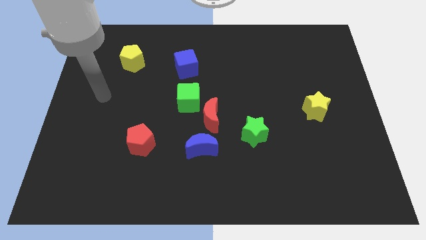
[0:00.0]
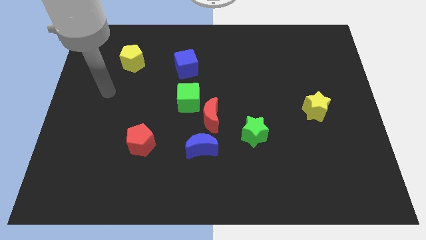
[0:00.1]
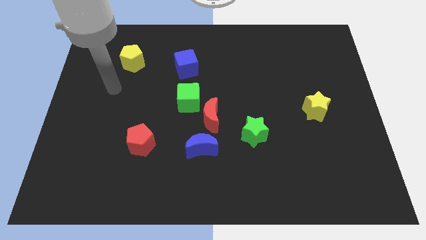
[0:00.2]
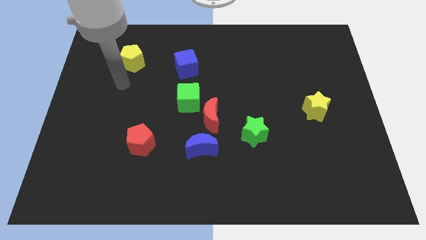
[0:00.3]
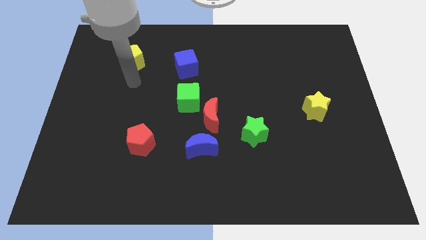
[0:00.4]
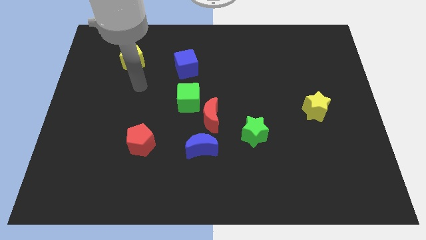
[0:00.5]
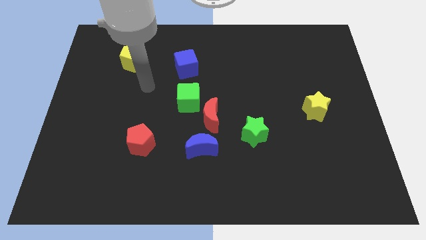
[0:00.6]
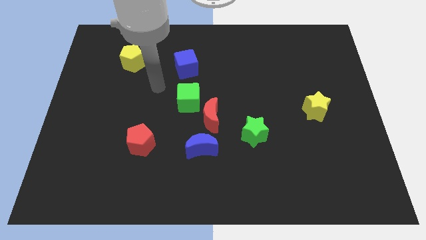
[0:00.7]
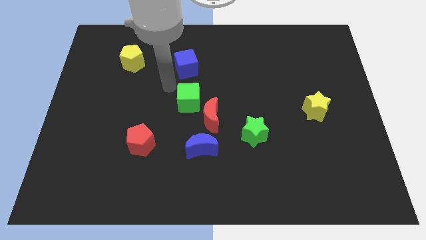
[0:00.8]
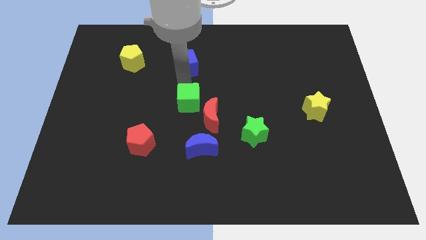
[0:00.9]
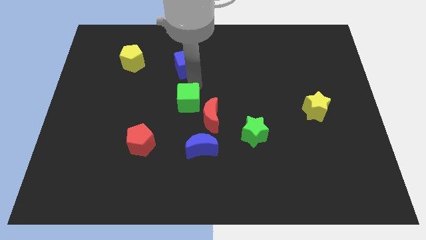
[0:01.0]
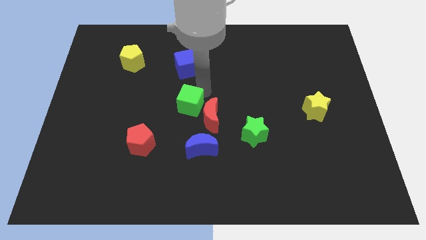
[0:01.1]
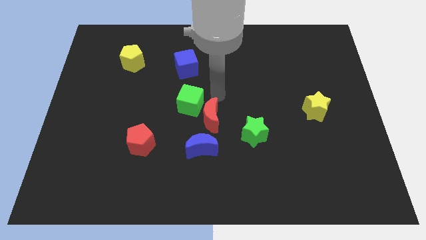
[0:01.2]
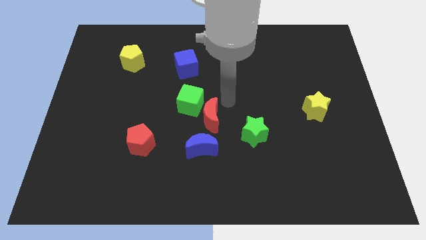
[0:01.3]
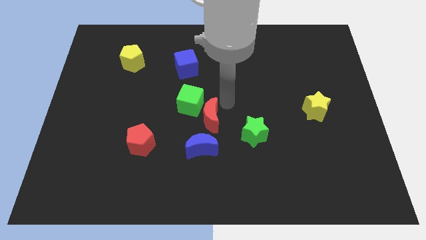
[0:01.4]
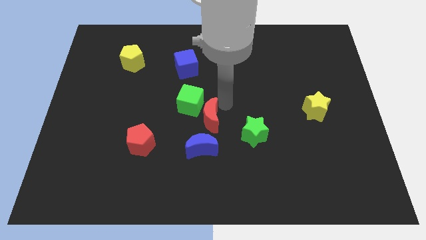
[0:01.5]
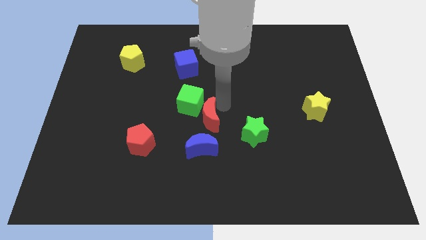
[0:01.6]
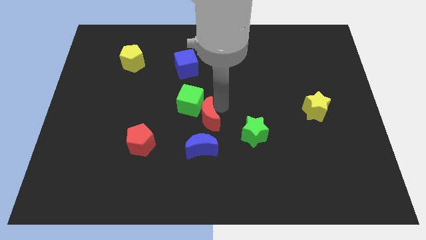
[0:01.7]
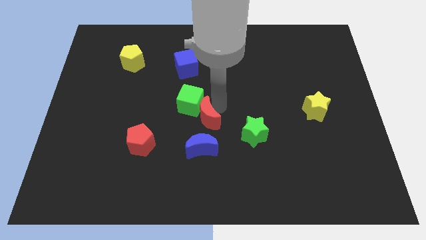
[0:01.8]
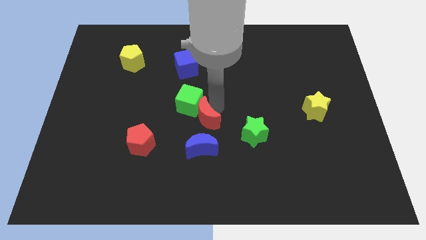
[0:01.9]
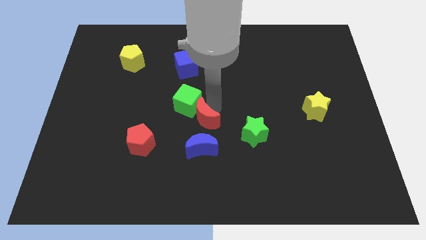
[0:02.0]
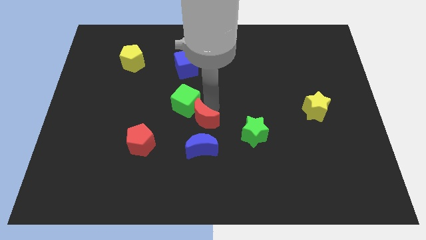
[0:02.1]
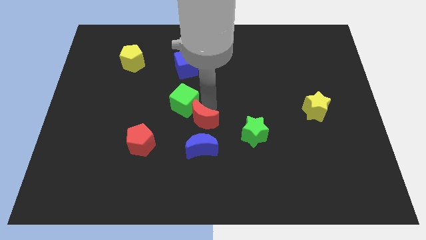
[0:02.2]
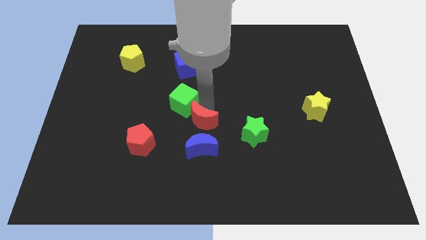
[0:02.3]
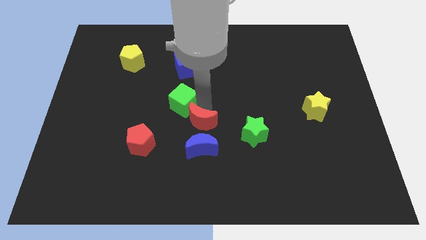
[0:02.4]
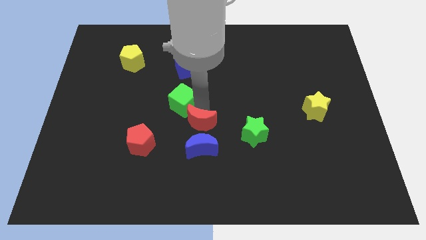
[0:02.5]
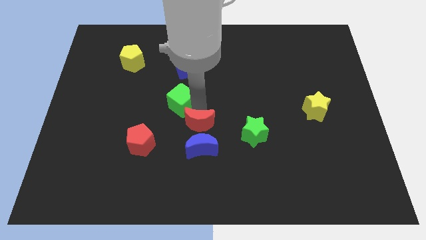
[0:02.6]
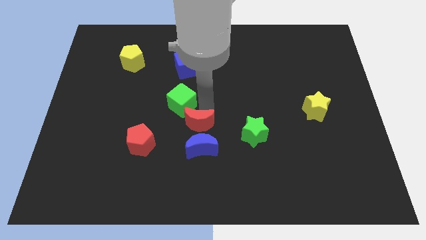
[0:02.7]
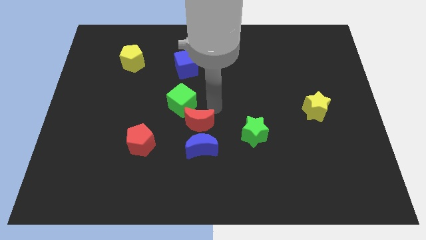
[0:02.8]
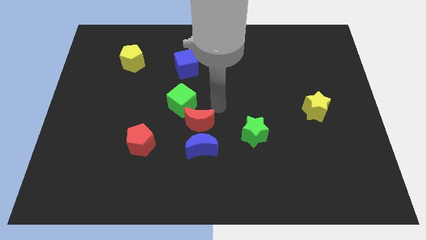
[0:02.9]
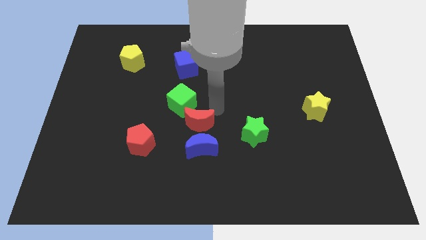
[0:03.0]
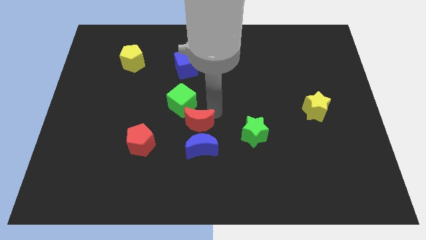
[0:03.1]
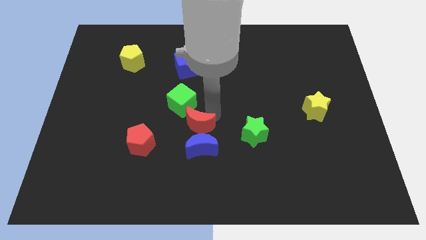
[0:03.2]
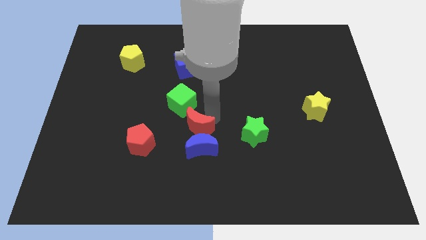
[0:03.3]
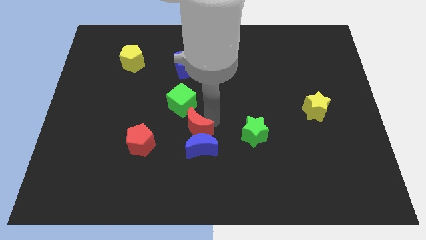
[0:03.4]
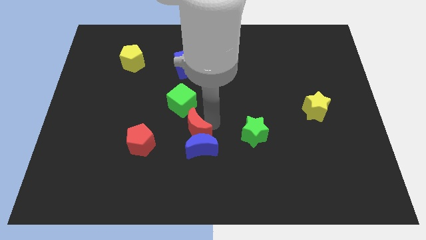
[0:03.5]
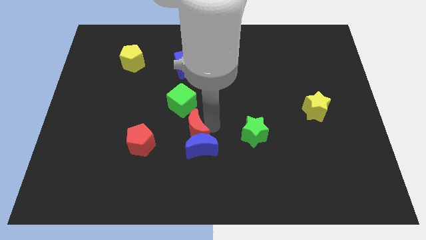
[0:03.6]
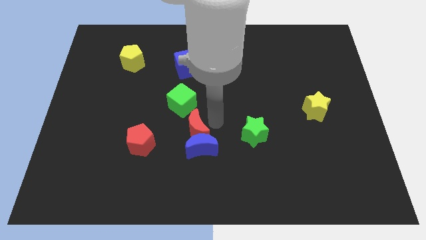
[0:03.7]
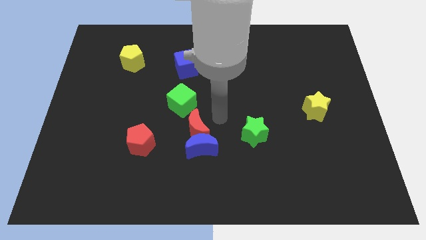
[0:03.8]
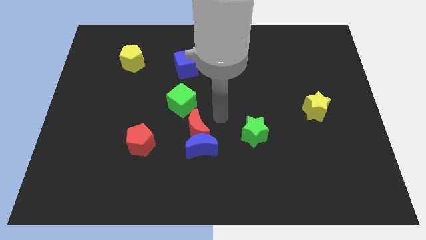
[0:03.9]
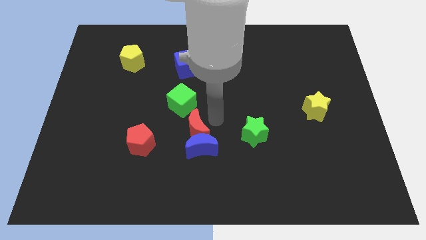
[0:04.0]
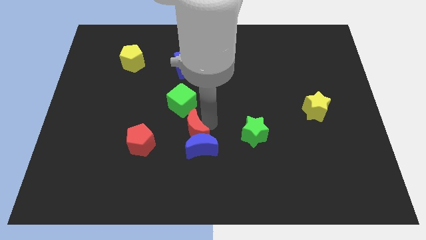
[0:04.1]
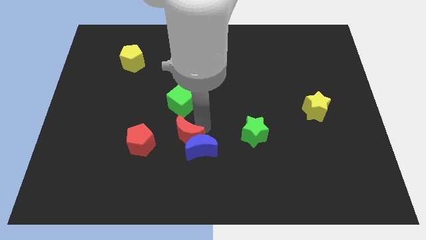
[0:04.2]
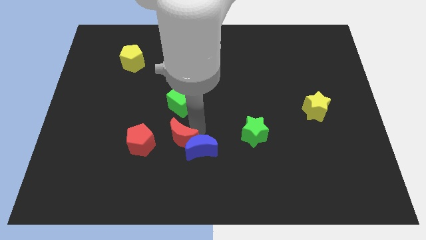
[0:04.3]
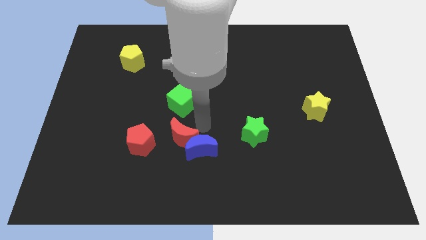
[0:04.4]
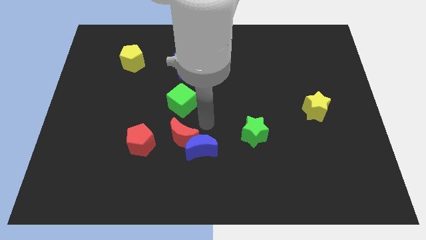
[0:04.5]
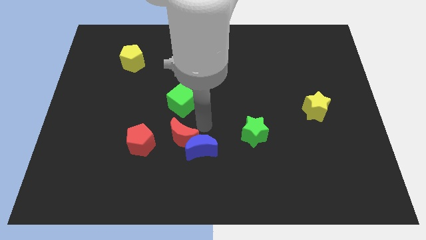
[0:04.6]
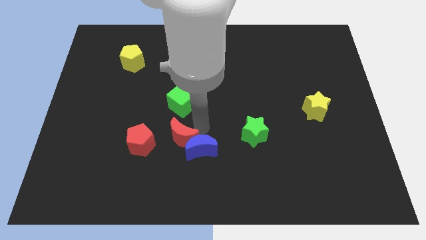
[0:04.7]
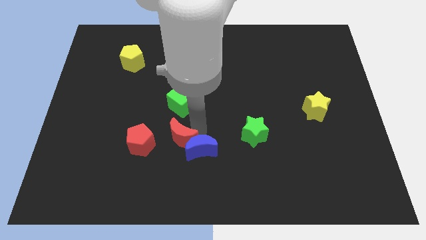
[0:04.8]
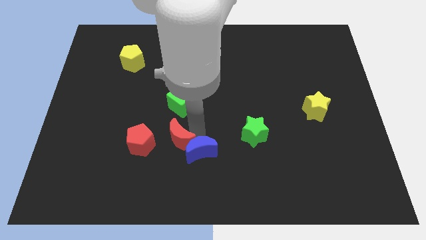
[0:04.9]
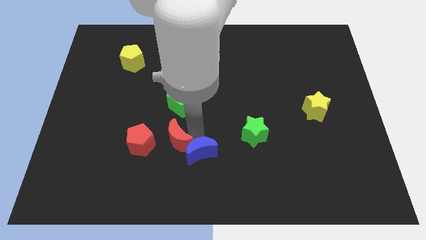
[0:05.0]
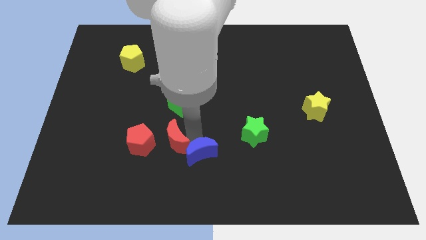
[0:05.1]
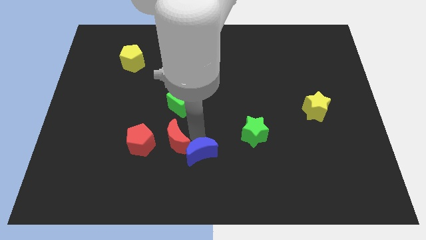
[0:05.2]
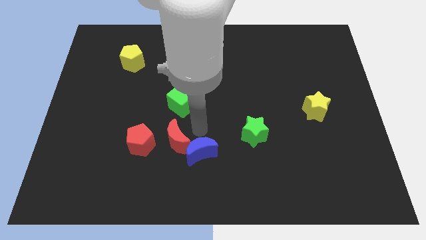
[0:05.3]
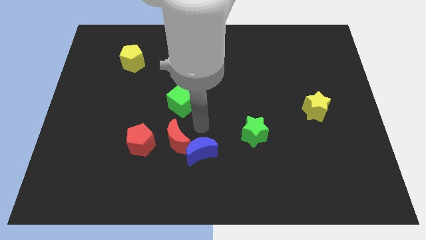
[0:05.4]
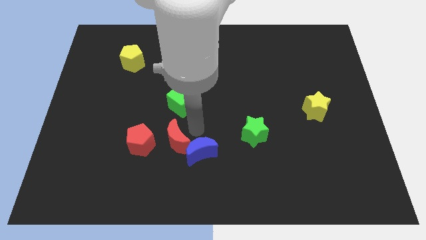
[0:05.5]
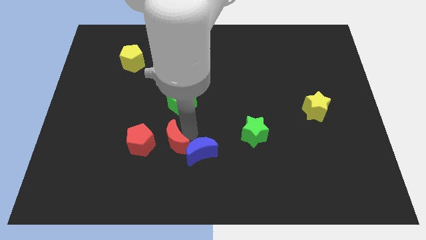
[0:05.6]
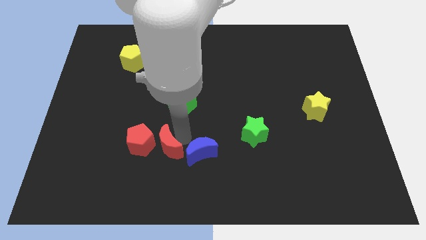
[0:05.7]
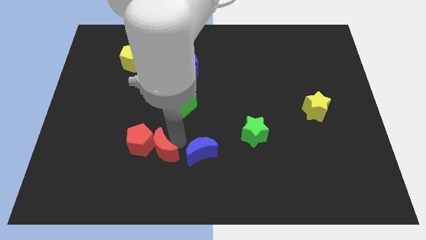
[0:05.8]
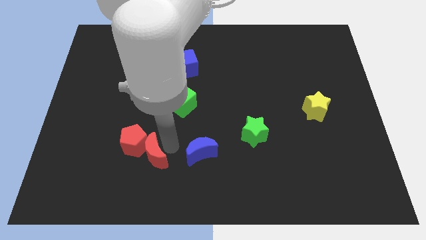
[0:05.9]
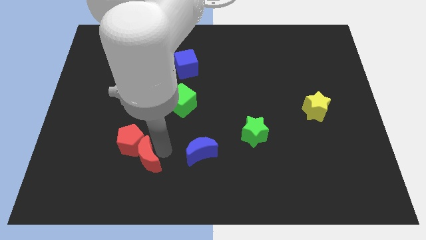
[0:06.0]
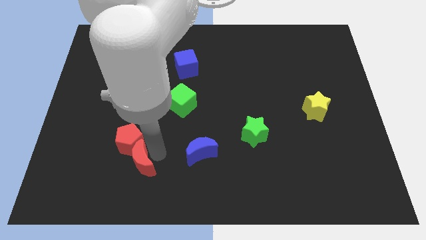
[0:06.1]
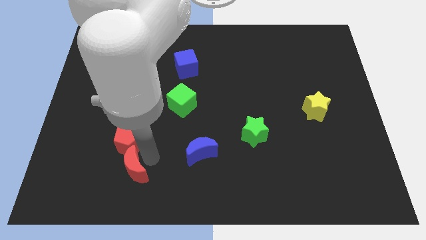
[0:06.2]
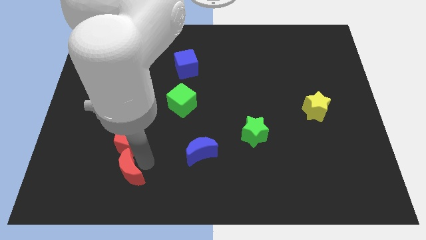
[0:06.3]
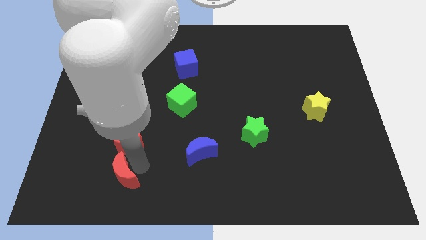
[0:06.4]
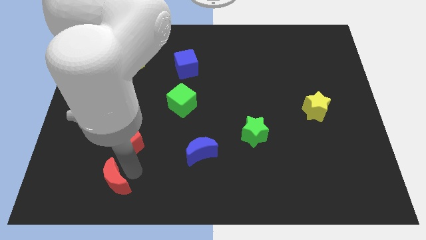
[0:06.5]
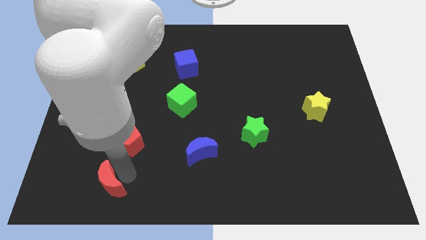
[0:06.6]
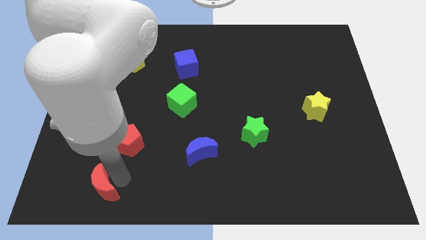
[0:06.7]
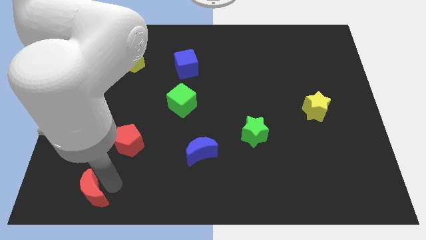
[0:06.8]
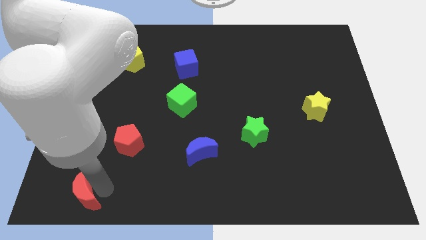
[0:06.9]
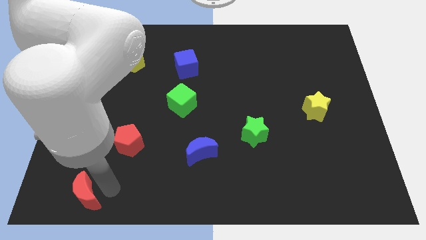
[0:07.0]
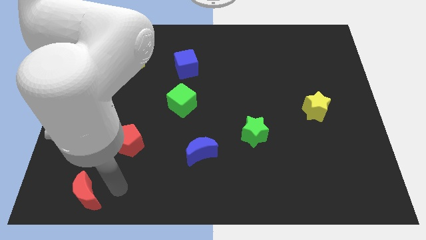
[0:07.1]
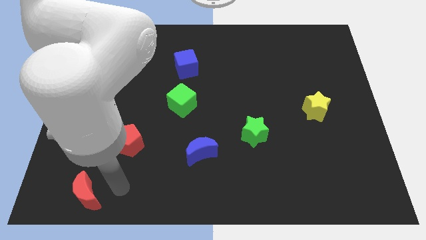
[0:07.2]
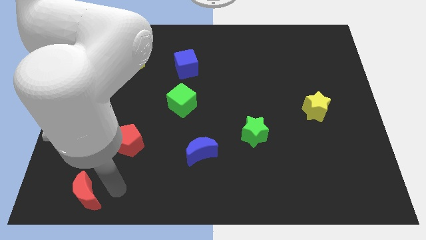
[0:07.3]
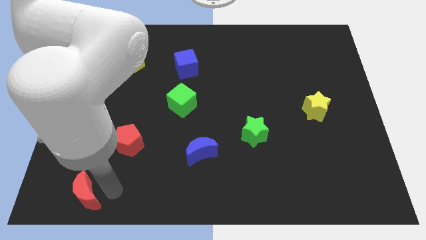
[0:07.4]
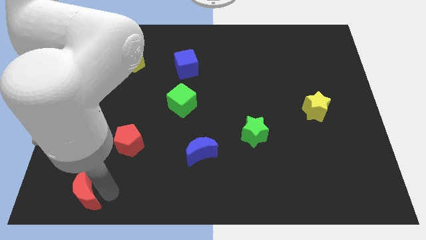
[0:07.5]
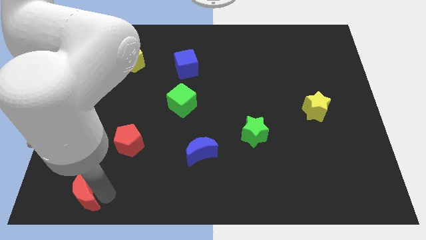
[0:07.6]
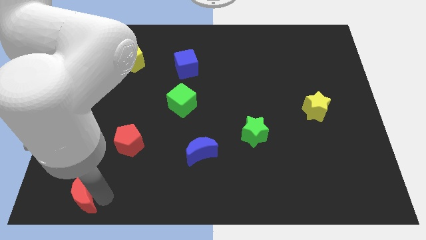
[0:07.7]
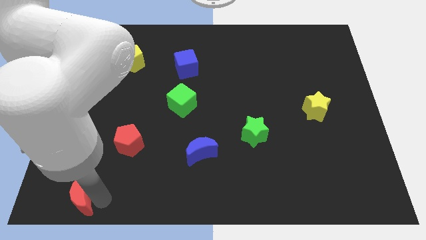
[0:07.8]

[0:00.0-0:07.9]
slide the red moon to the lower left corner
